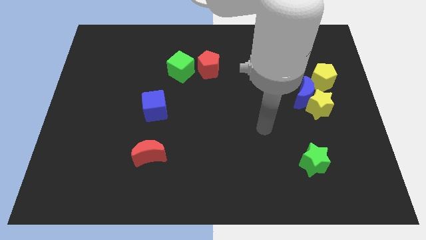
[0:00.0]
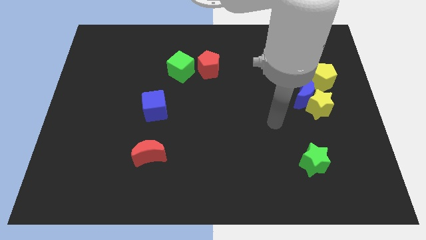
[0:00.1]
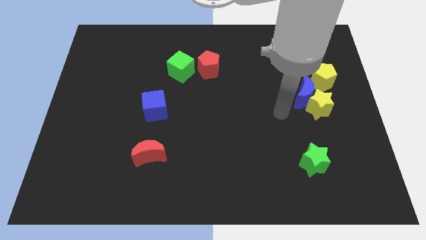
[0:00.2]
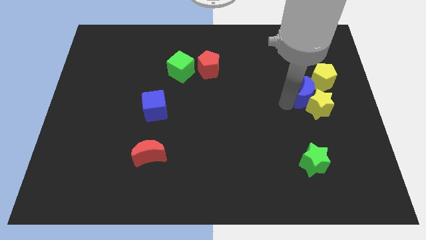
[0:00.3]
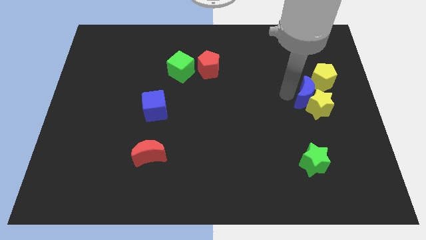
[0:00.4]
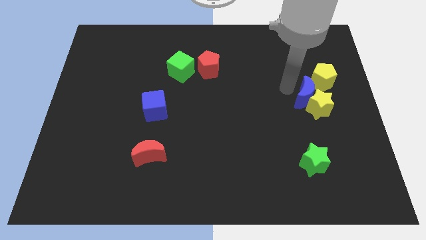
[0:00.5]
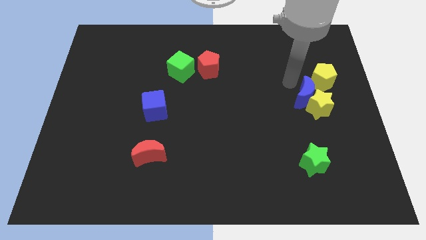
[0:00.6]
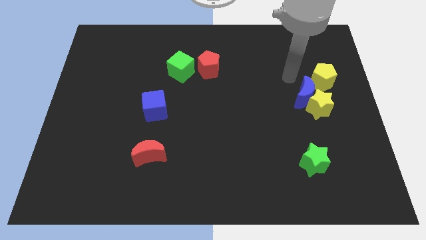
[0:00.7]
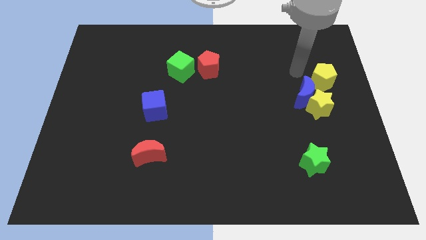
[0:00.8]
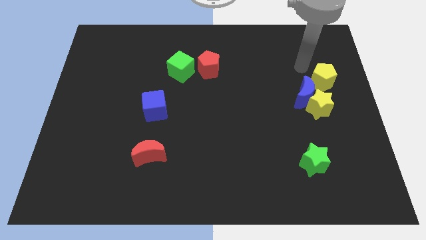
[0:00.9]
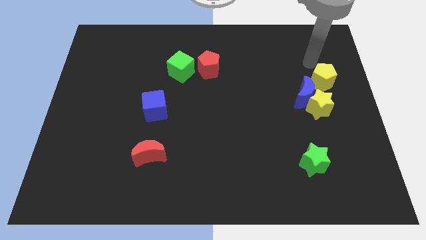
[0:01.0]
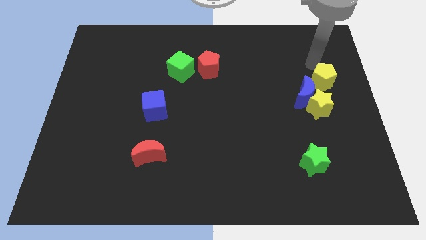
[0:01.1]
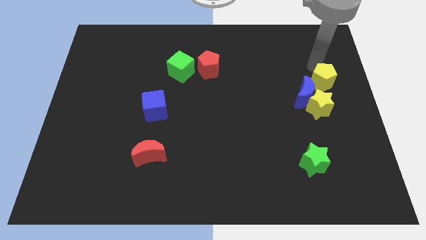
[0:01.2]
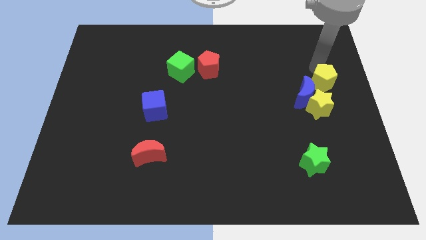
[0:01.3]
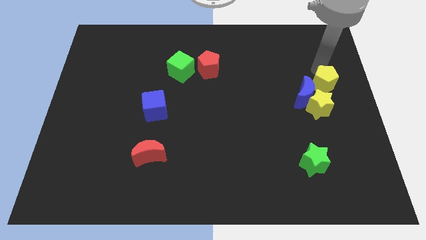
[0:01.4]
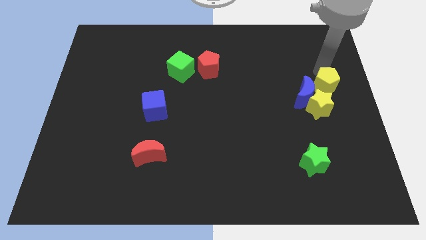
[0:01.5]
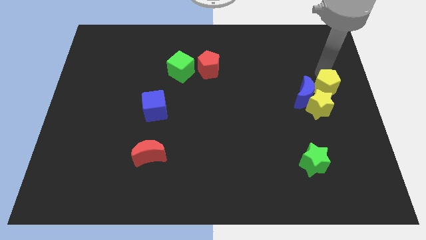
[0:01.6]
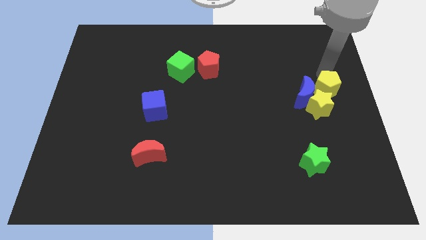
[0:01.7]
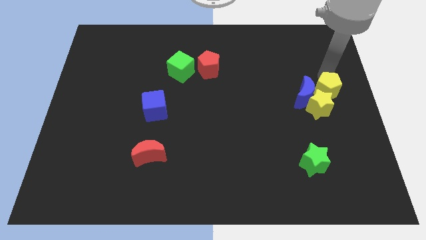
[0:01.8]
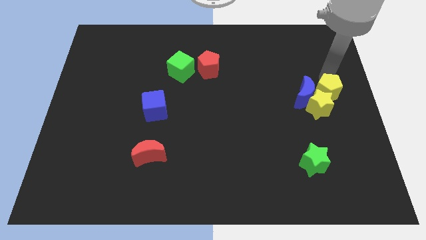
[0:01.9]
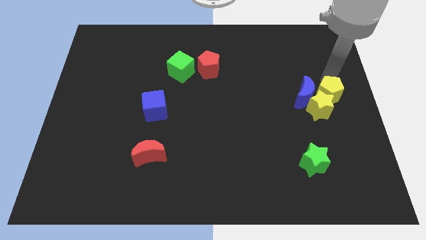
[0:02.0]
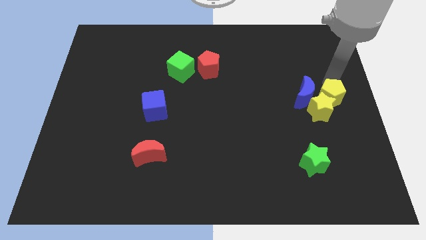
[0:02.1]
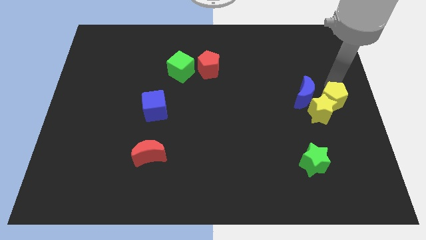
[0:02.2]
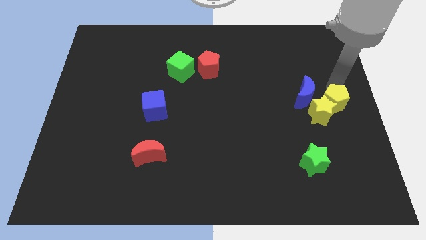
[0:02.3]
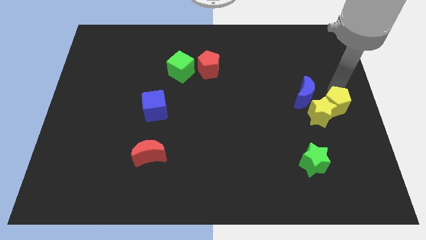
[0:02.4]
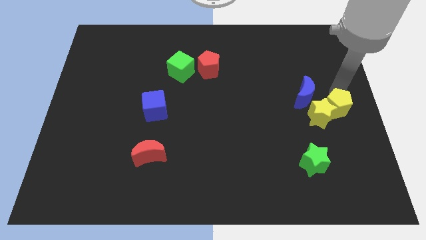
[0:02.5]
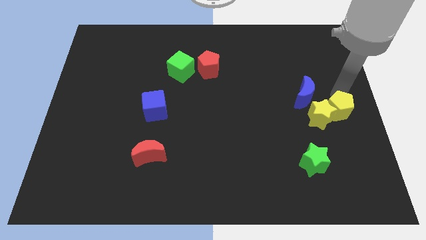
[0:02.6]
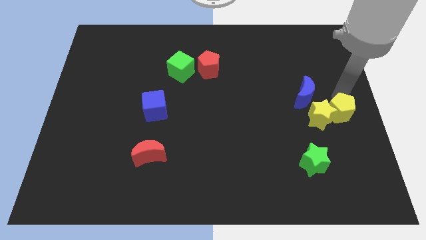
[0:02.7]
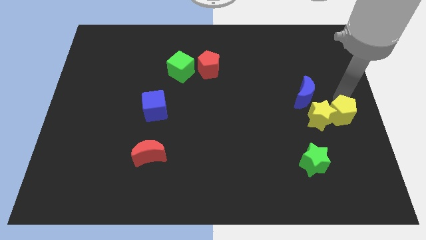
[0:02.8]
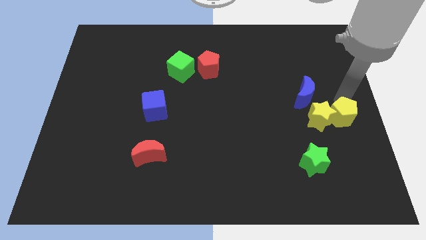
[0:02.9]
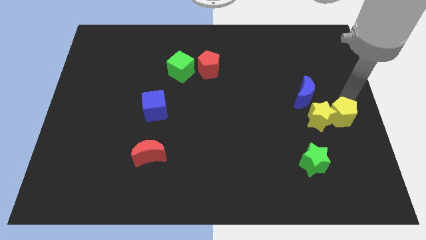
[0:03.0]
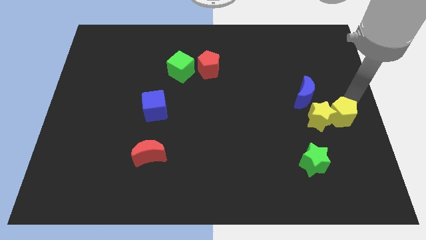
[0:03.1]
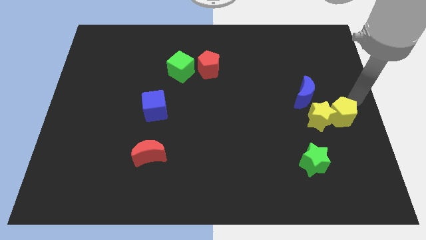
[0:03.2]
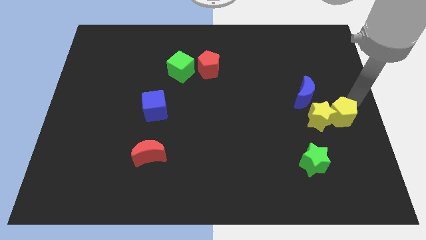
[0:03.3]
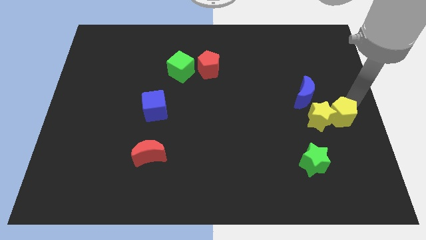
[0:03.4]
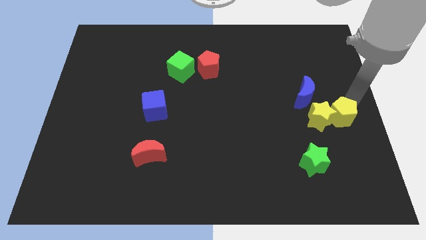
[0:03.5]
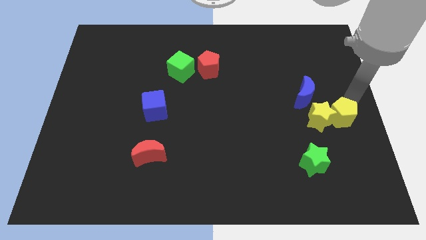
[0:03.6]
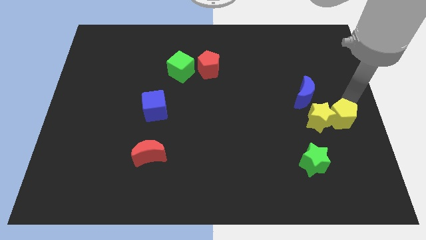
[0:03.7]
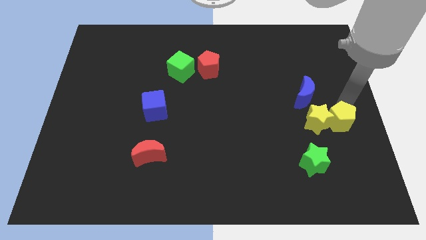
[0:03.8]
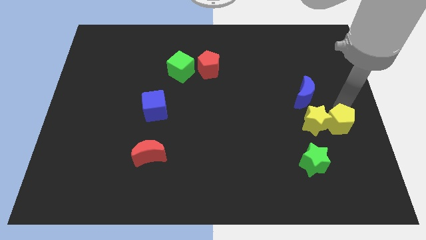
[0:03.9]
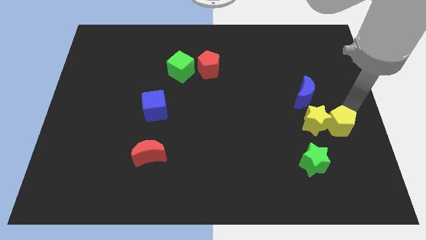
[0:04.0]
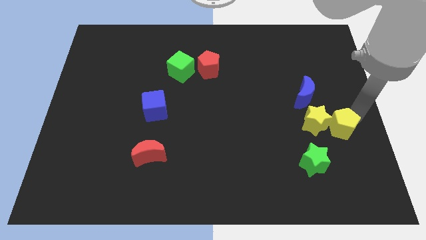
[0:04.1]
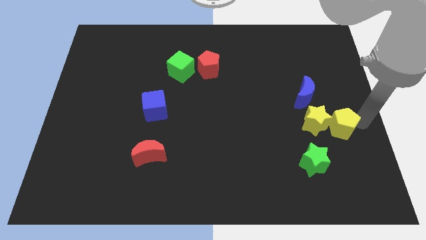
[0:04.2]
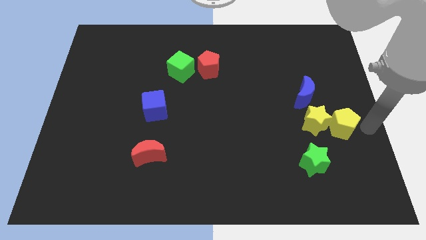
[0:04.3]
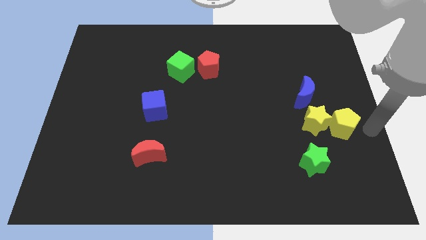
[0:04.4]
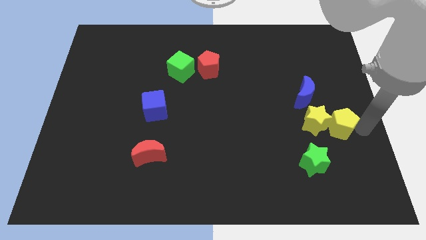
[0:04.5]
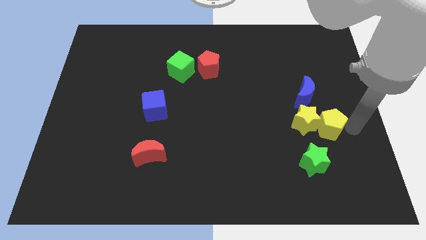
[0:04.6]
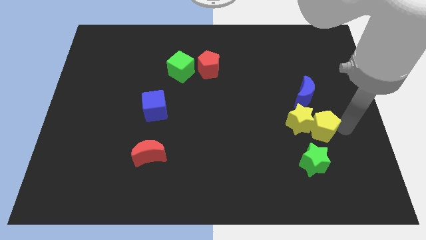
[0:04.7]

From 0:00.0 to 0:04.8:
push the yellow pentagon above the green star

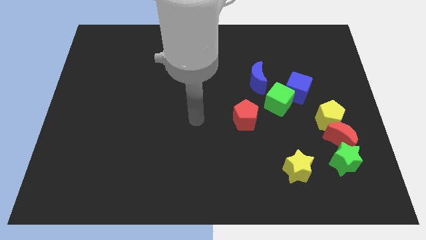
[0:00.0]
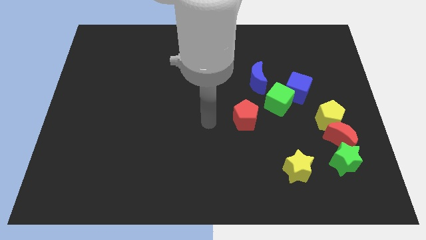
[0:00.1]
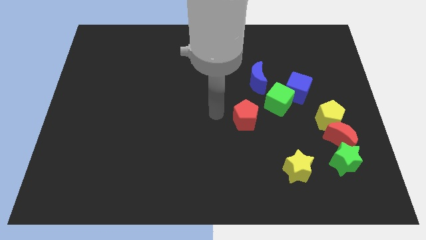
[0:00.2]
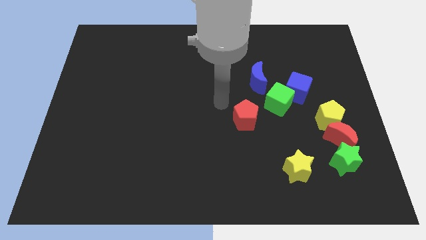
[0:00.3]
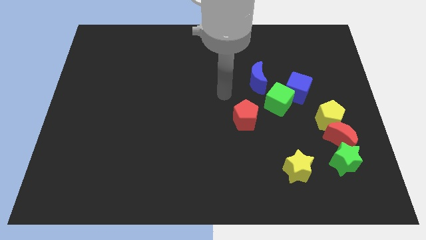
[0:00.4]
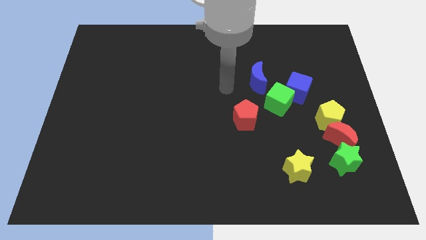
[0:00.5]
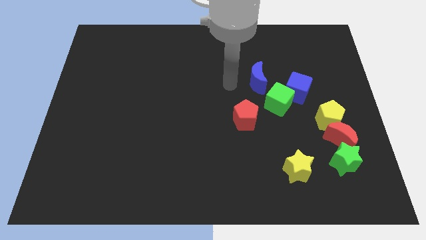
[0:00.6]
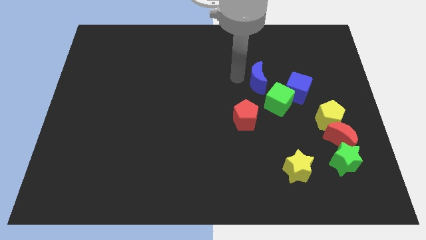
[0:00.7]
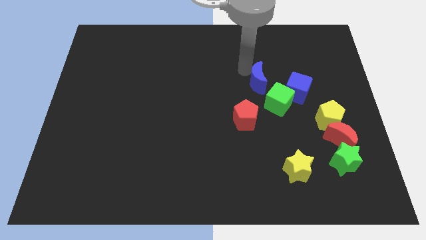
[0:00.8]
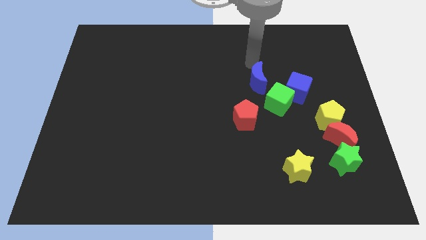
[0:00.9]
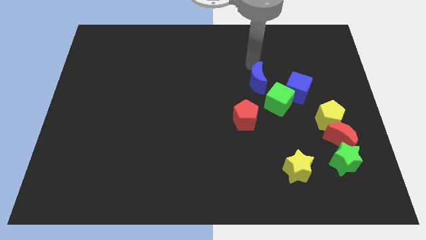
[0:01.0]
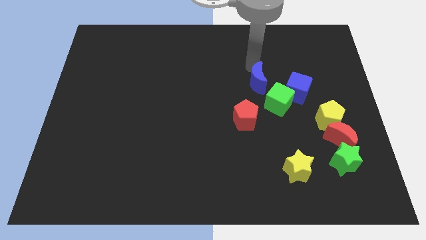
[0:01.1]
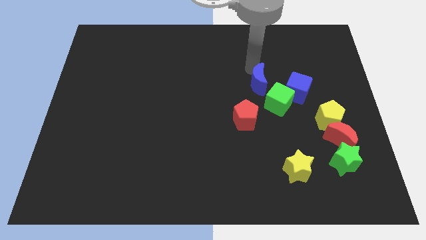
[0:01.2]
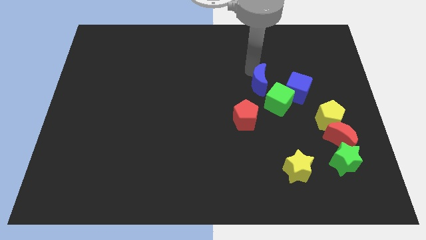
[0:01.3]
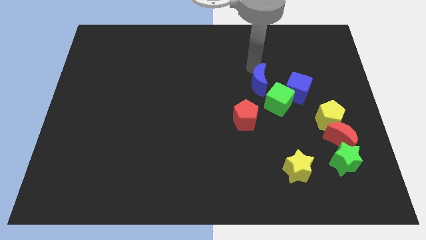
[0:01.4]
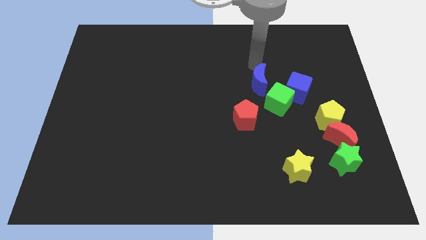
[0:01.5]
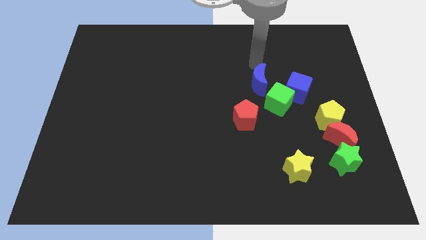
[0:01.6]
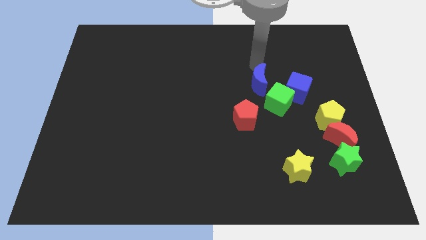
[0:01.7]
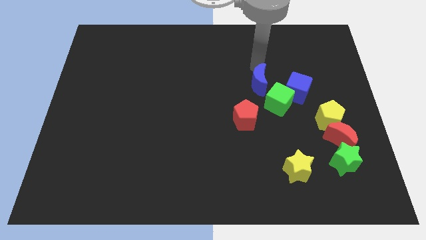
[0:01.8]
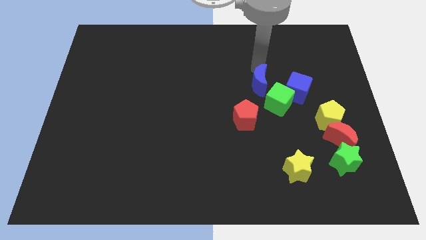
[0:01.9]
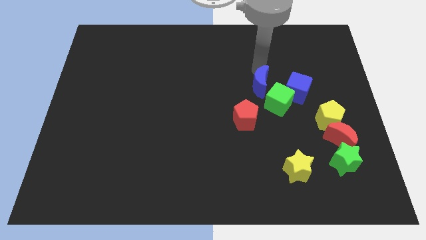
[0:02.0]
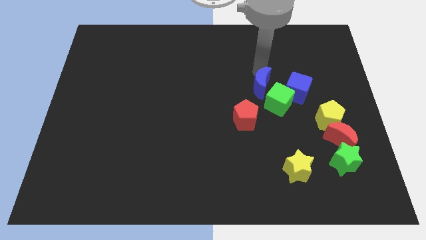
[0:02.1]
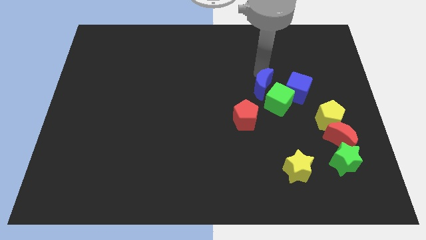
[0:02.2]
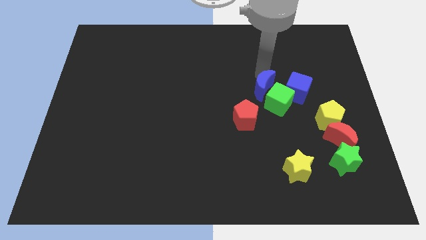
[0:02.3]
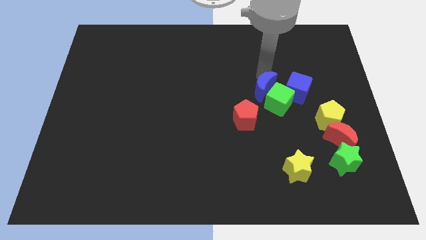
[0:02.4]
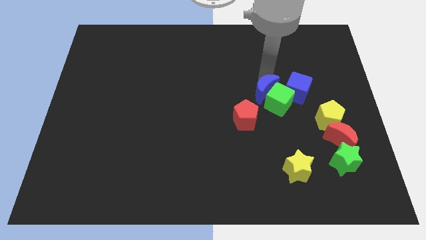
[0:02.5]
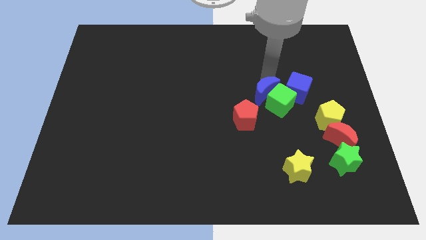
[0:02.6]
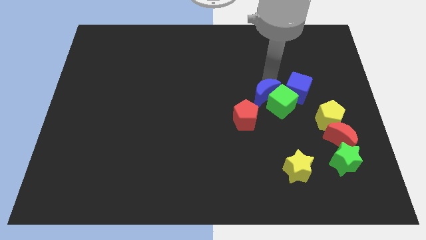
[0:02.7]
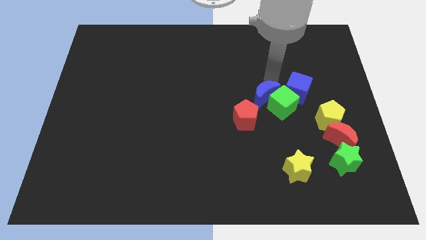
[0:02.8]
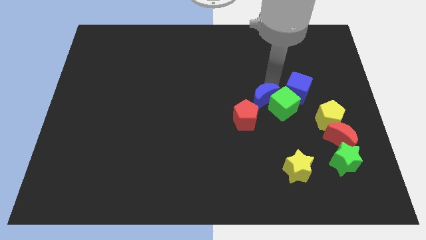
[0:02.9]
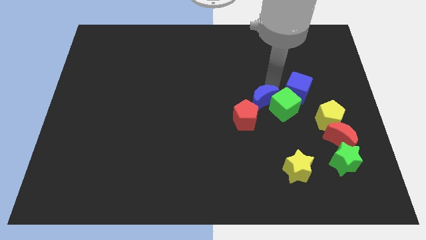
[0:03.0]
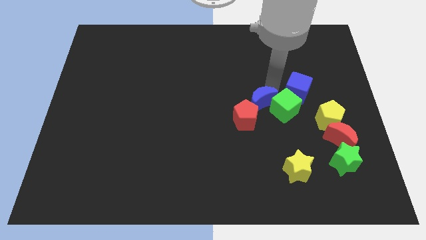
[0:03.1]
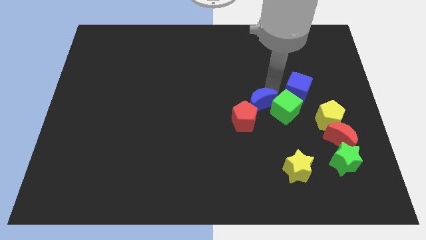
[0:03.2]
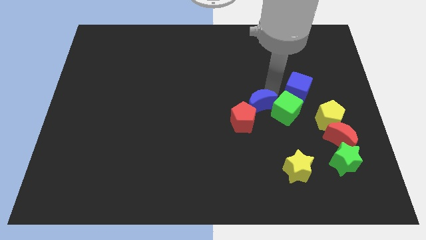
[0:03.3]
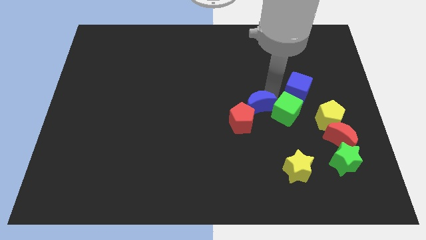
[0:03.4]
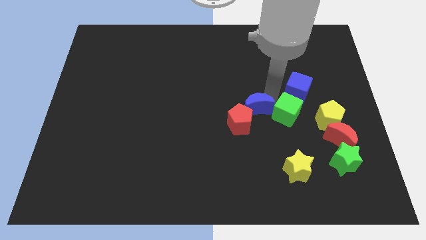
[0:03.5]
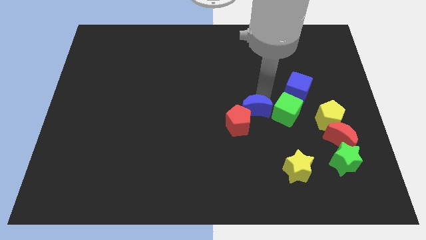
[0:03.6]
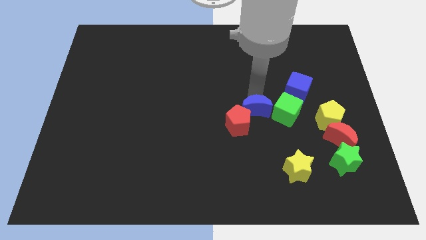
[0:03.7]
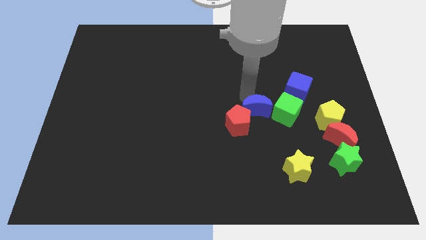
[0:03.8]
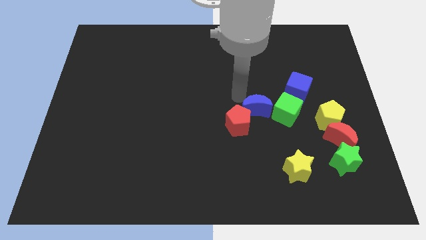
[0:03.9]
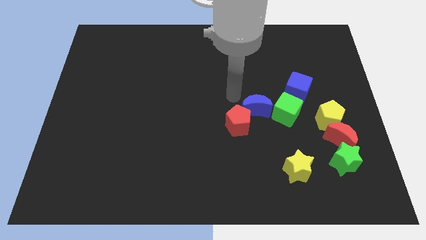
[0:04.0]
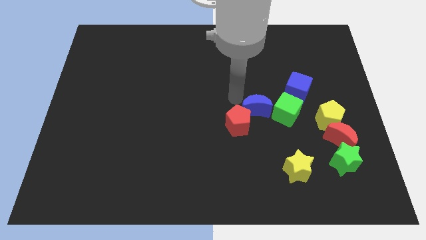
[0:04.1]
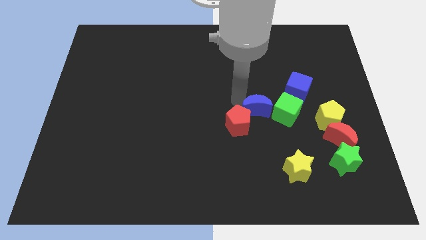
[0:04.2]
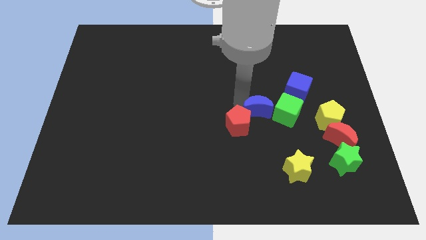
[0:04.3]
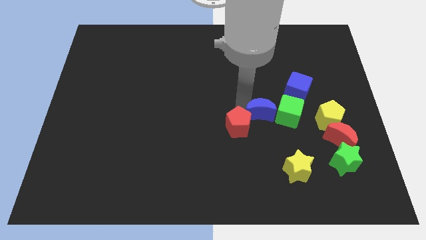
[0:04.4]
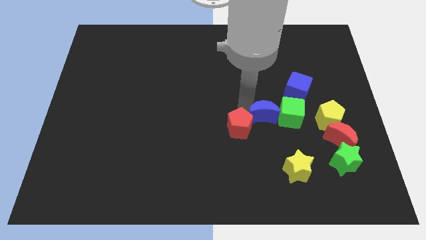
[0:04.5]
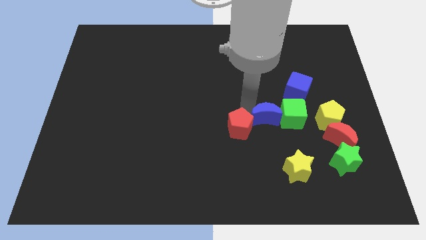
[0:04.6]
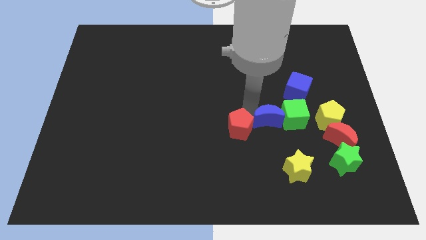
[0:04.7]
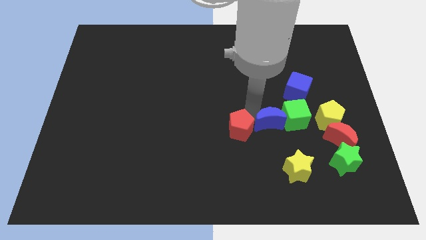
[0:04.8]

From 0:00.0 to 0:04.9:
slide the blue moon to the top side of the yellow star
